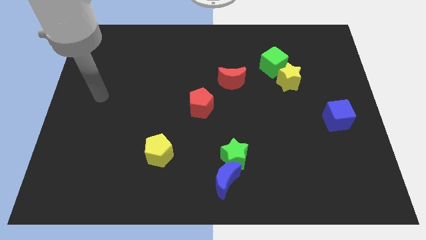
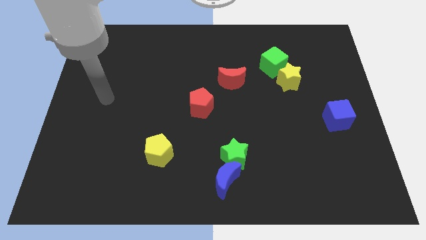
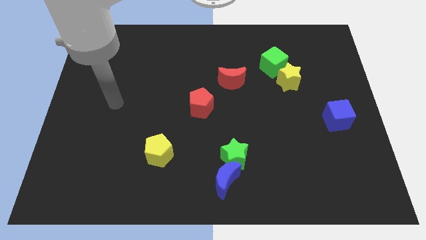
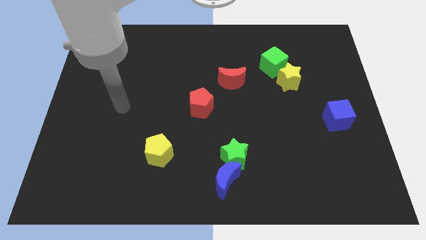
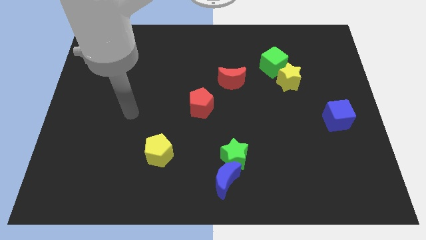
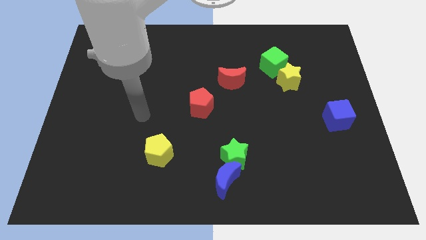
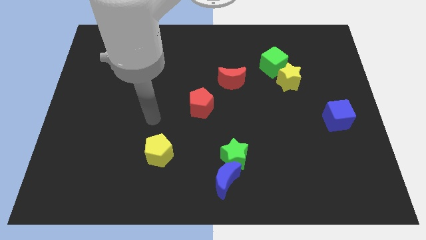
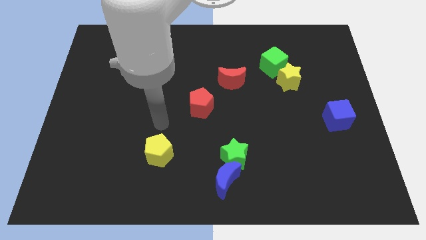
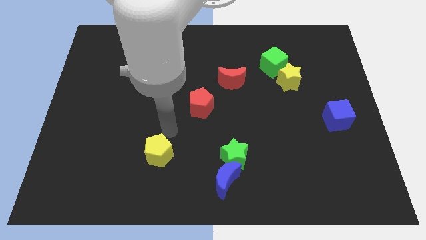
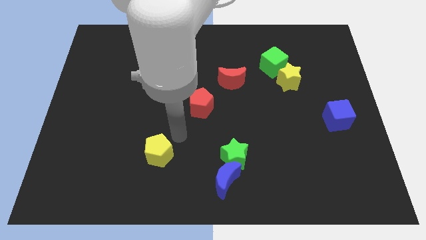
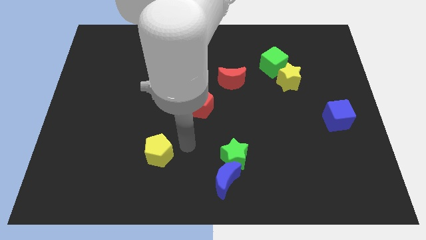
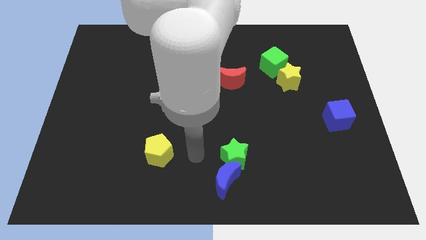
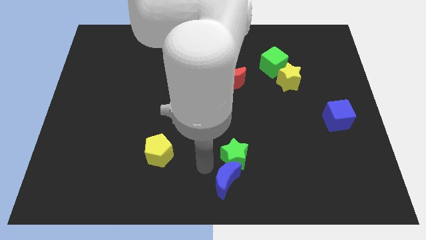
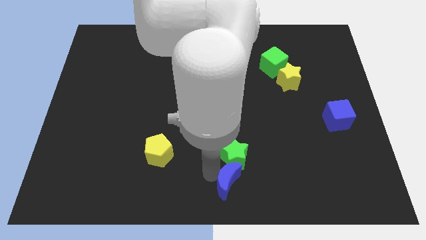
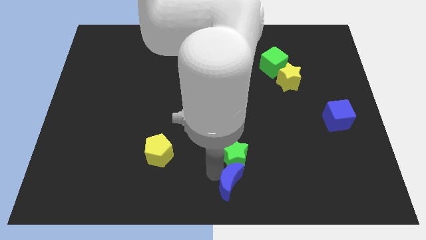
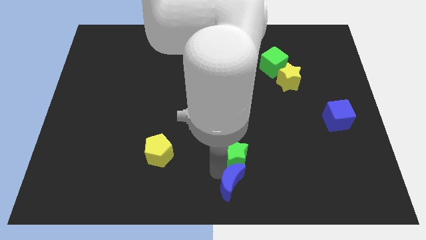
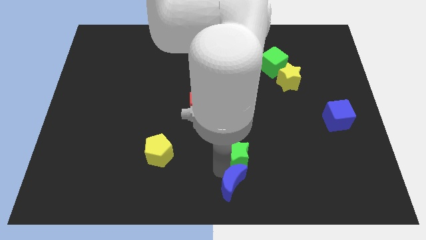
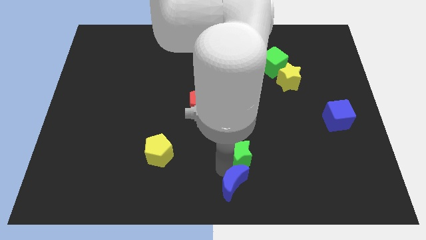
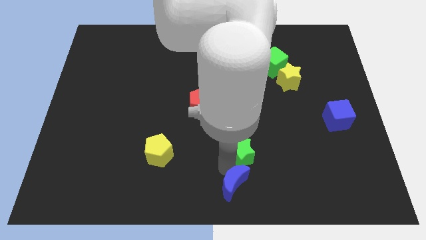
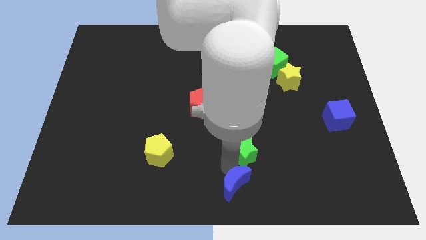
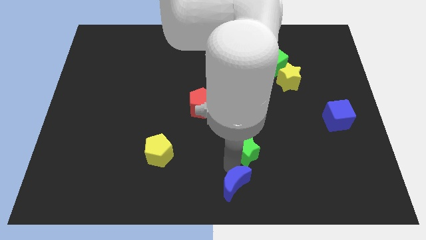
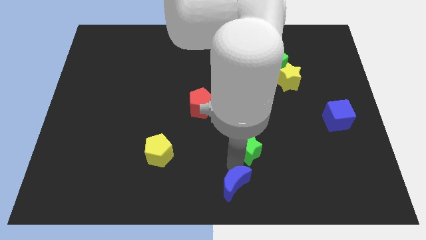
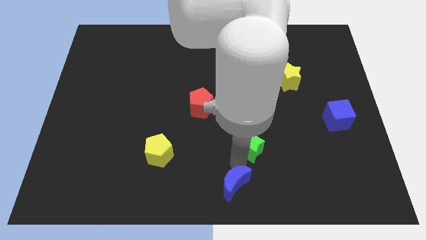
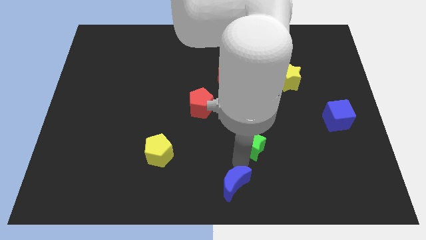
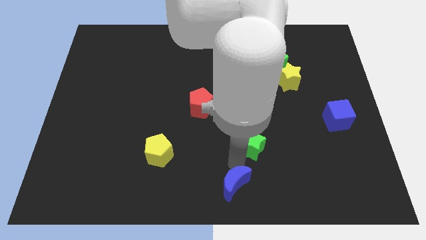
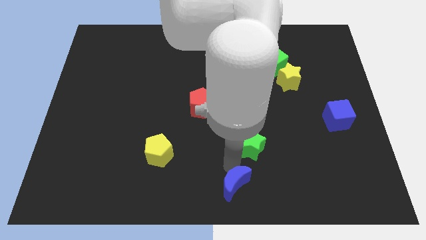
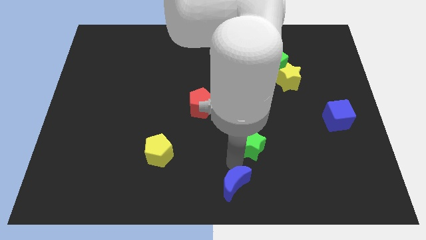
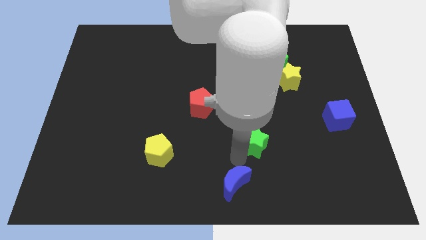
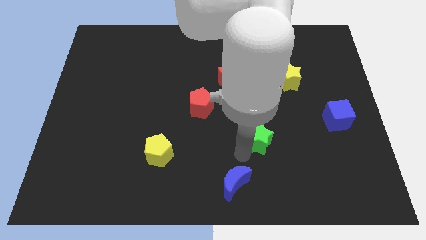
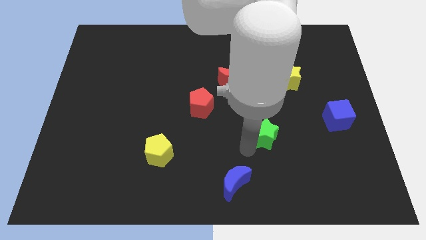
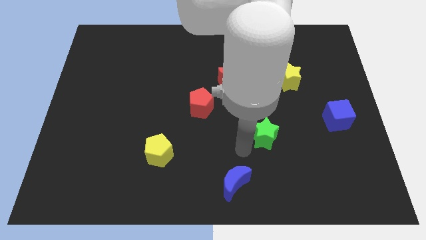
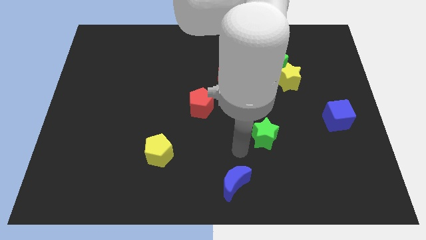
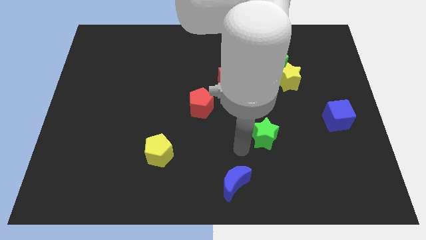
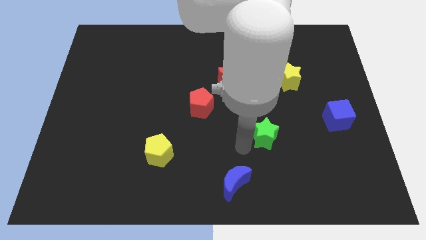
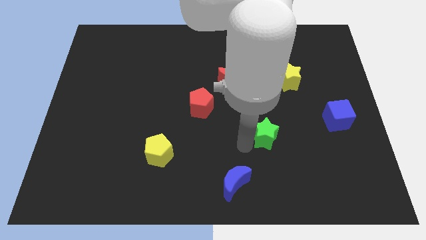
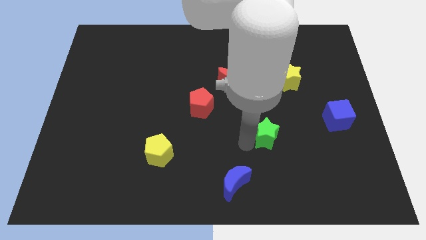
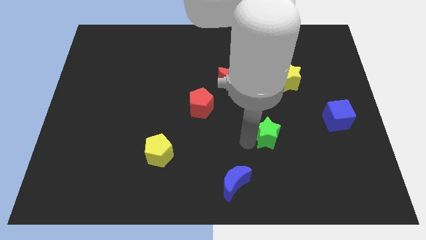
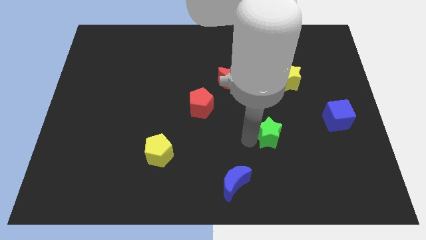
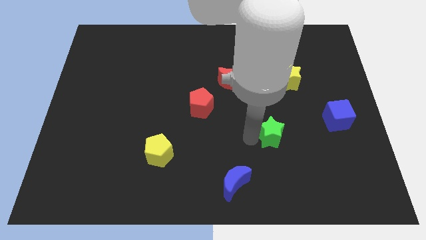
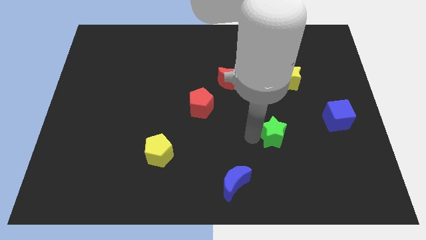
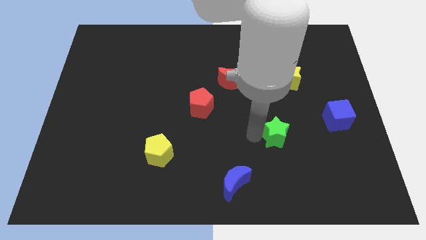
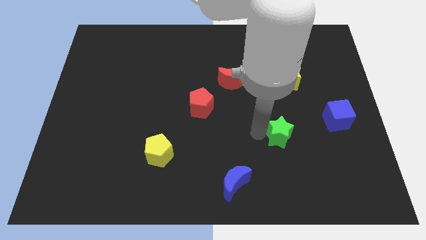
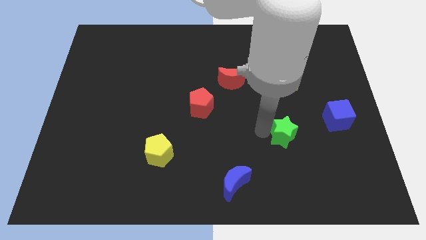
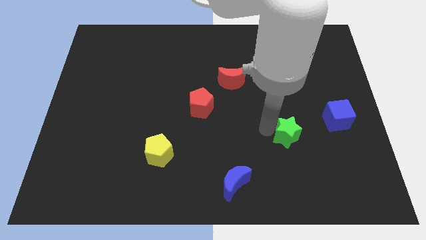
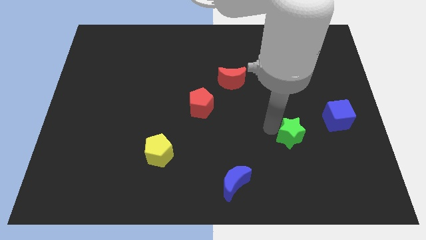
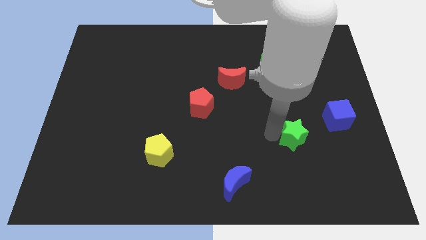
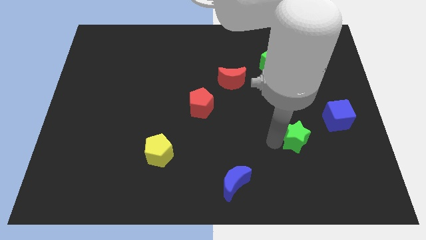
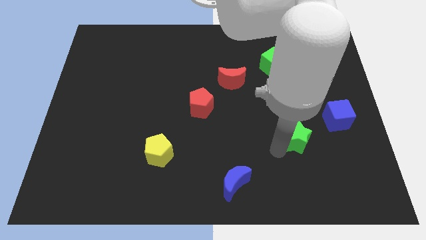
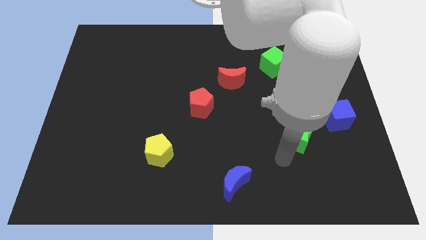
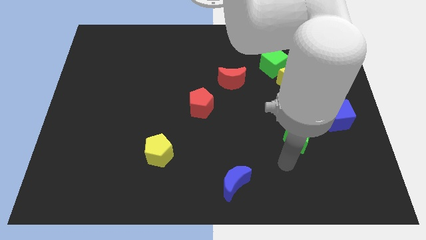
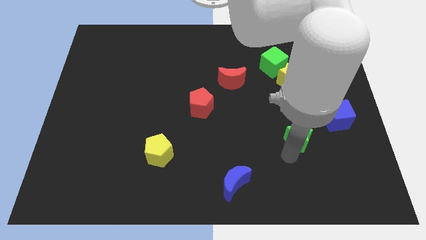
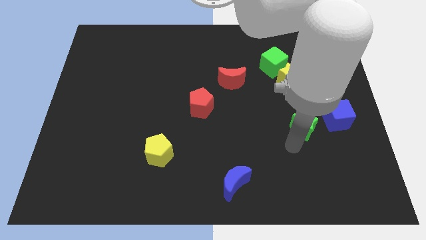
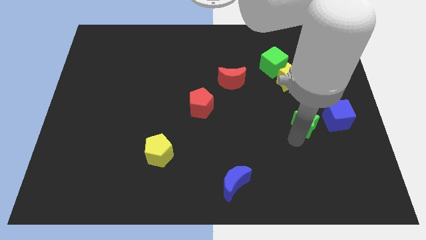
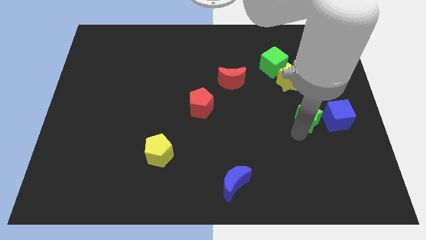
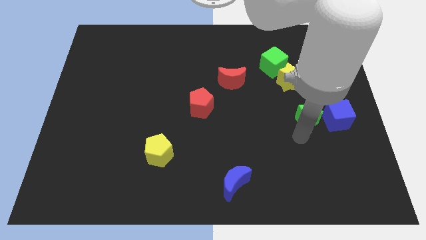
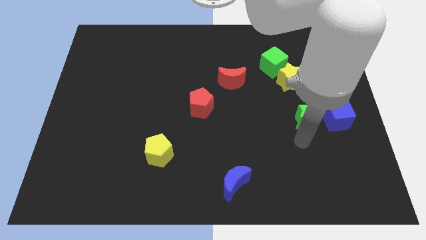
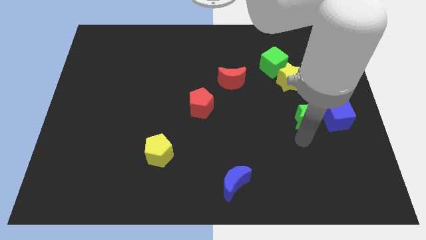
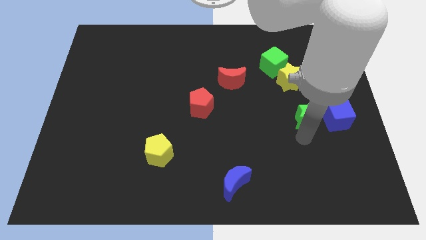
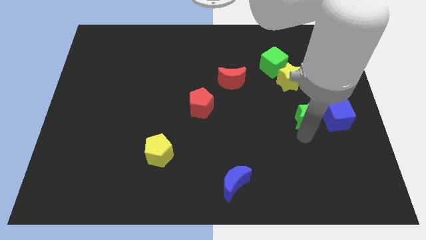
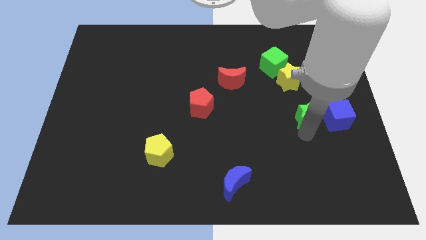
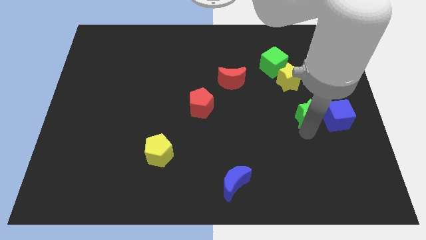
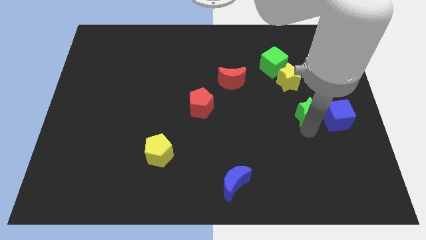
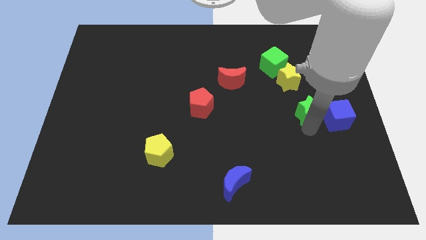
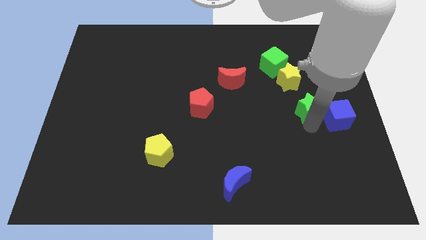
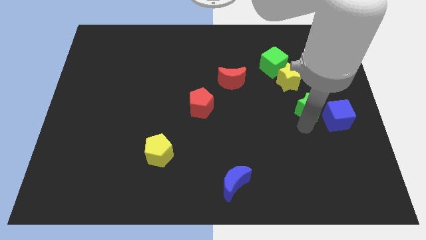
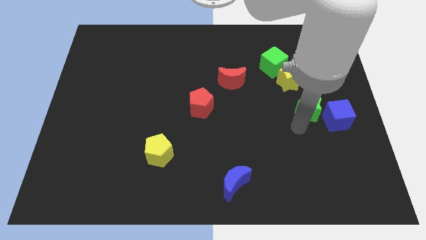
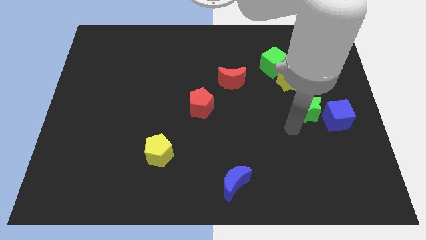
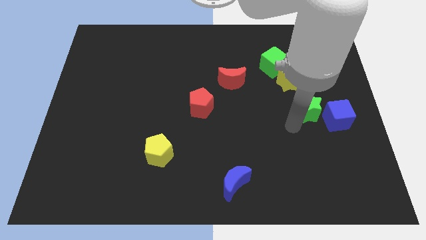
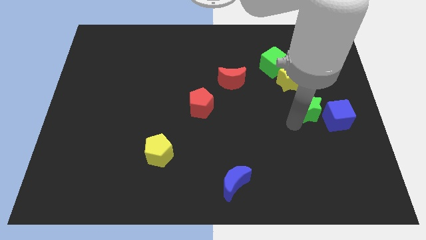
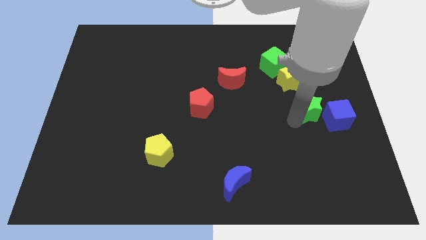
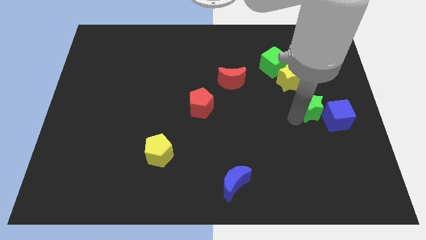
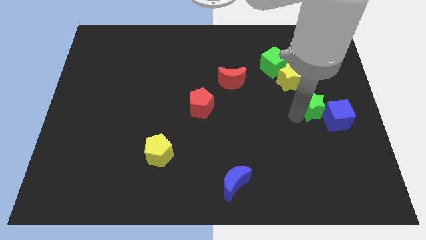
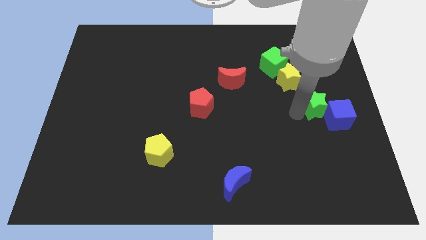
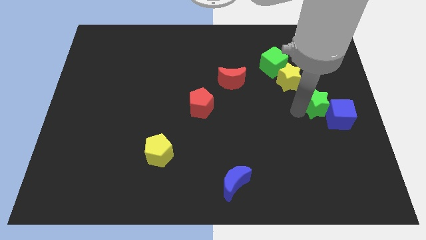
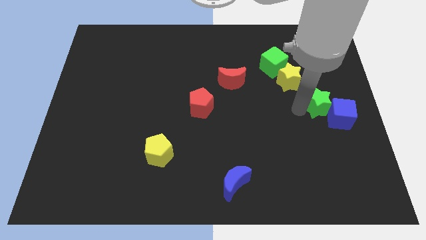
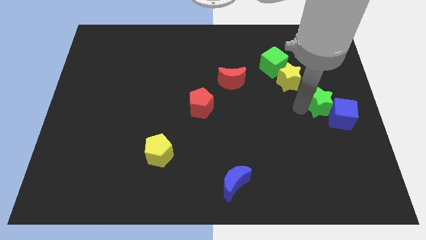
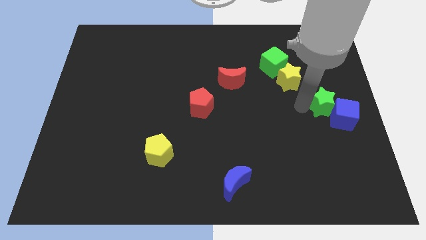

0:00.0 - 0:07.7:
put the green star to the top of the blue cube
